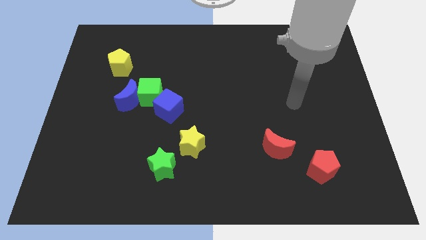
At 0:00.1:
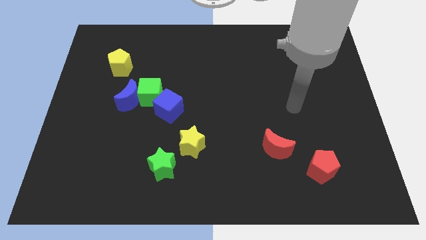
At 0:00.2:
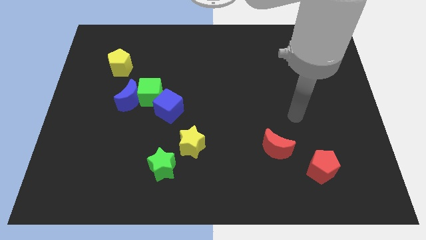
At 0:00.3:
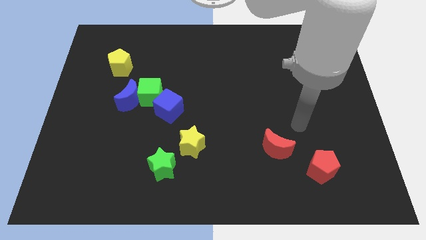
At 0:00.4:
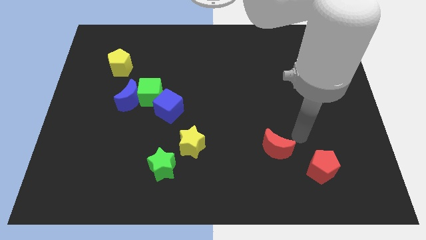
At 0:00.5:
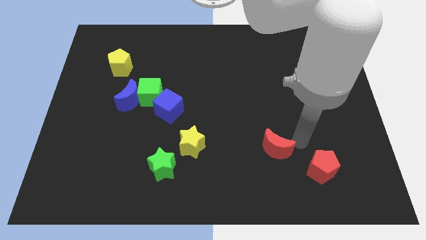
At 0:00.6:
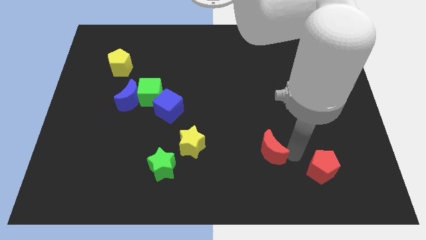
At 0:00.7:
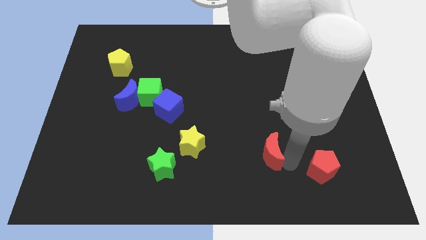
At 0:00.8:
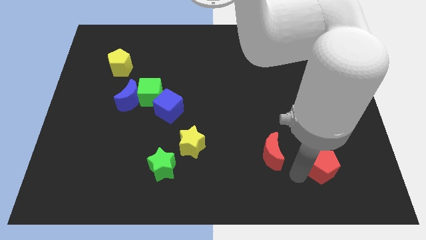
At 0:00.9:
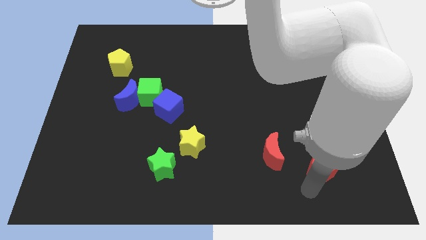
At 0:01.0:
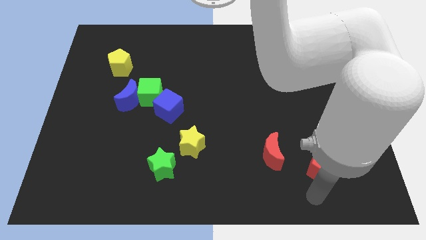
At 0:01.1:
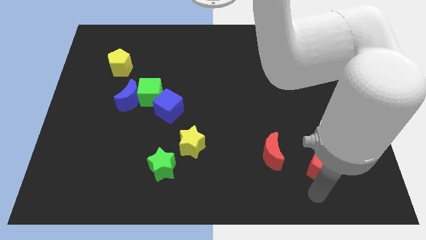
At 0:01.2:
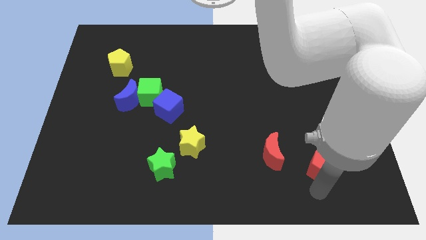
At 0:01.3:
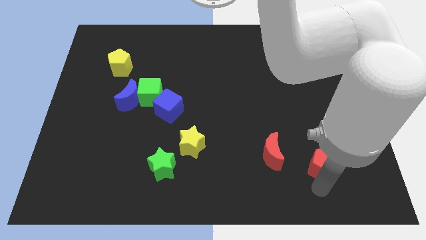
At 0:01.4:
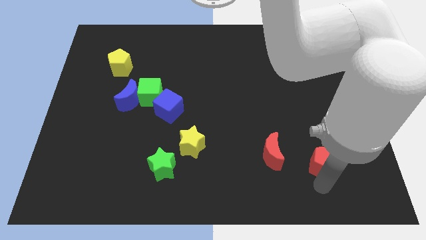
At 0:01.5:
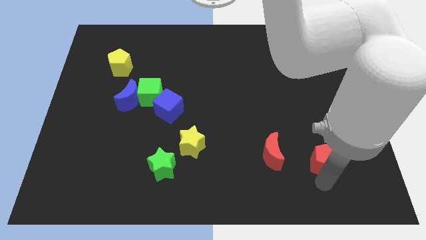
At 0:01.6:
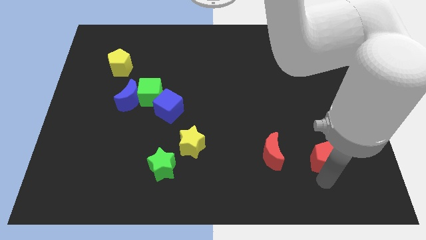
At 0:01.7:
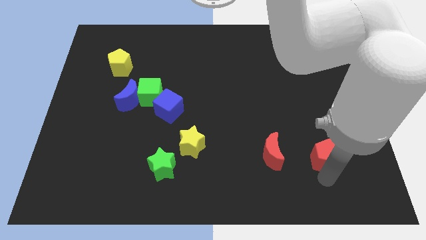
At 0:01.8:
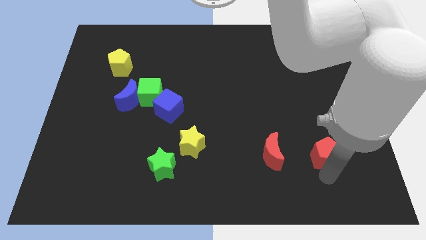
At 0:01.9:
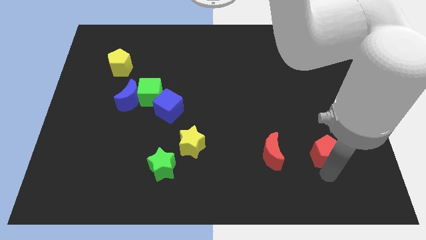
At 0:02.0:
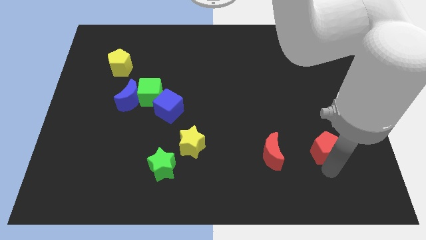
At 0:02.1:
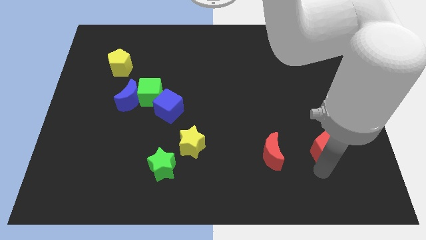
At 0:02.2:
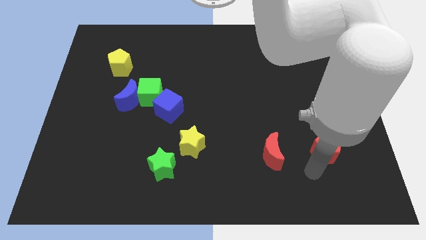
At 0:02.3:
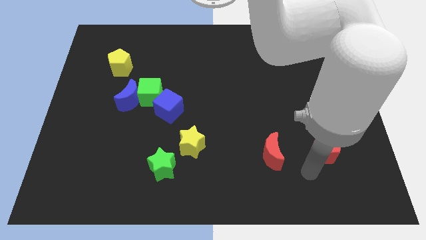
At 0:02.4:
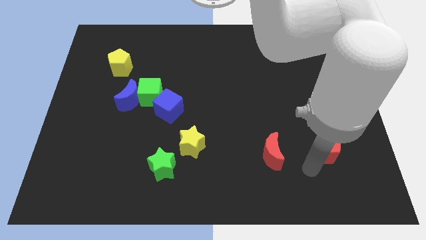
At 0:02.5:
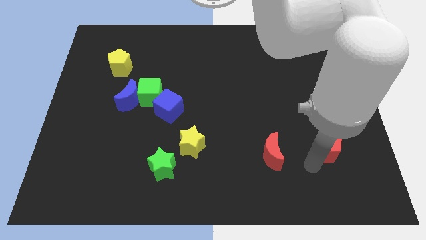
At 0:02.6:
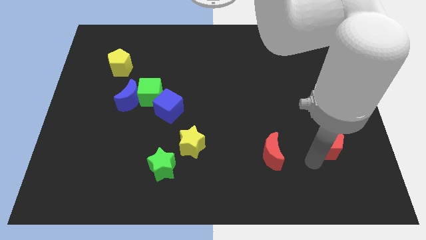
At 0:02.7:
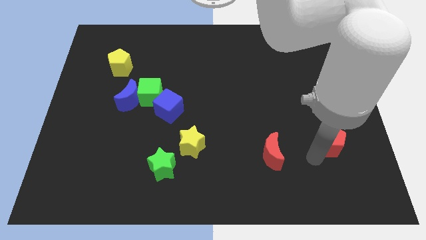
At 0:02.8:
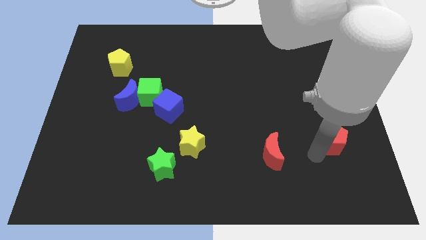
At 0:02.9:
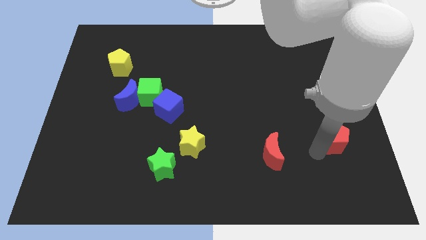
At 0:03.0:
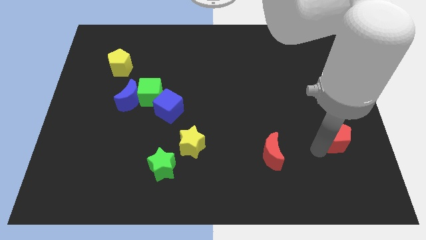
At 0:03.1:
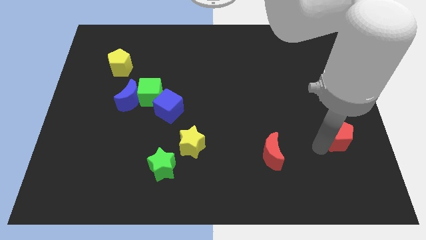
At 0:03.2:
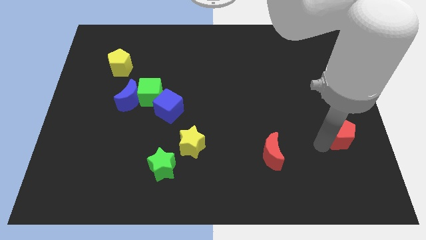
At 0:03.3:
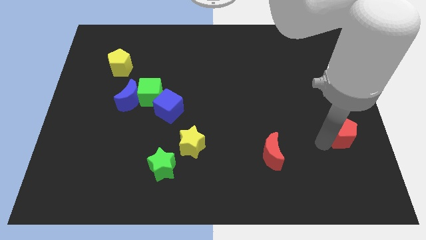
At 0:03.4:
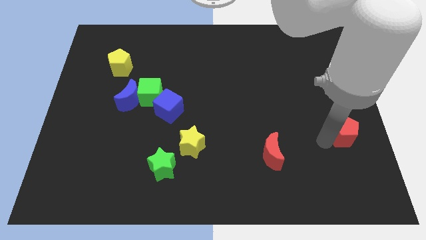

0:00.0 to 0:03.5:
put the red pentagon to the right side

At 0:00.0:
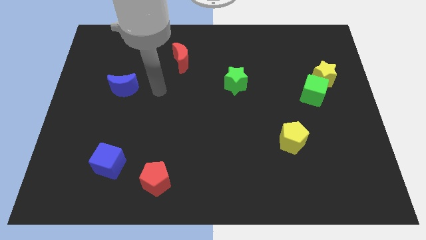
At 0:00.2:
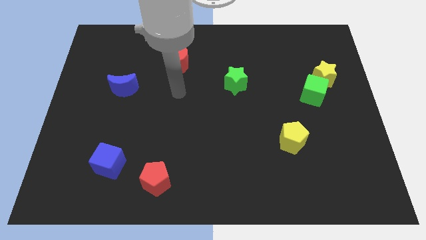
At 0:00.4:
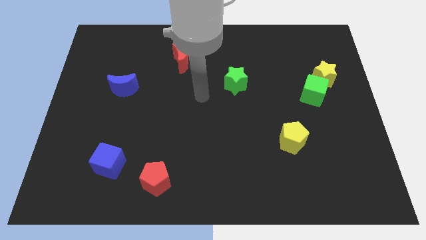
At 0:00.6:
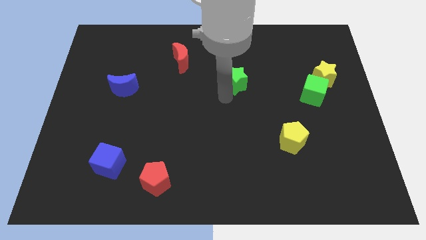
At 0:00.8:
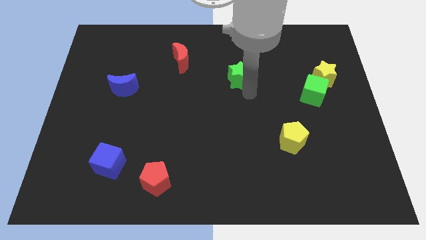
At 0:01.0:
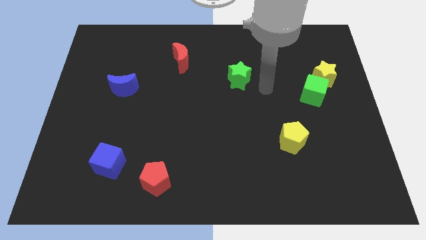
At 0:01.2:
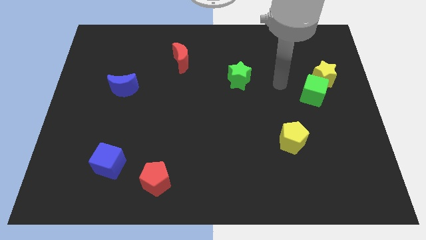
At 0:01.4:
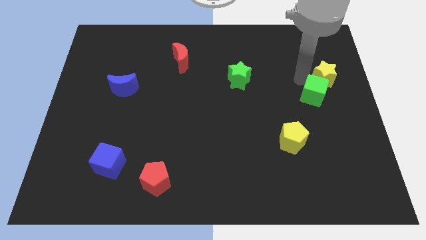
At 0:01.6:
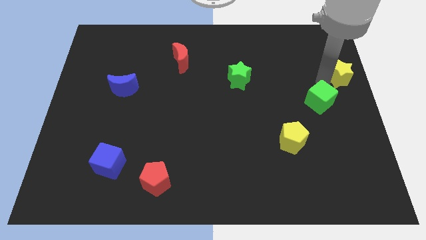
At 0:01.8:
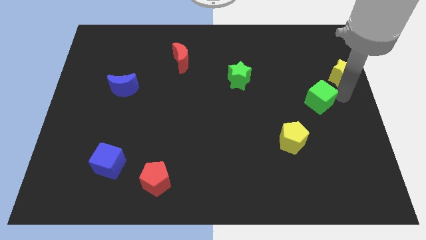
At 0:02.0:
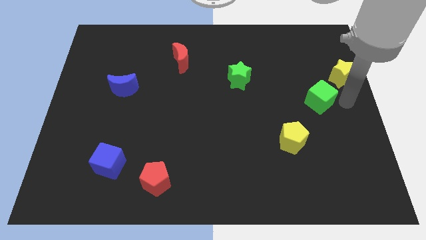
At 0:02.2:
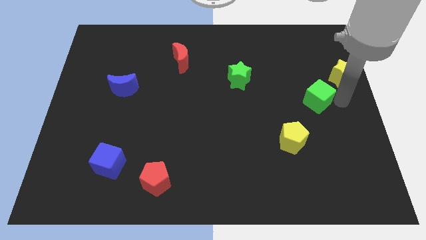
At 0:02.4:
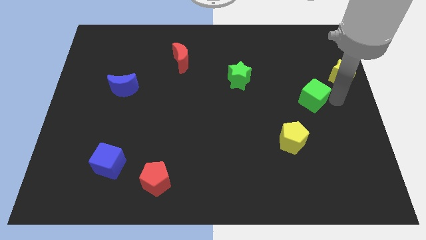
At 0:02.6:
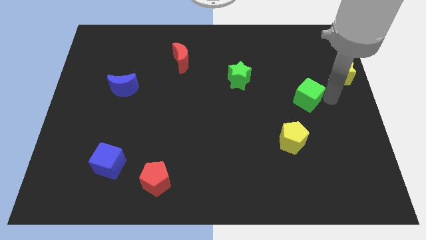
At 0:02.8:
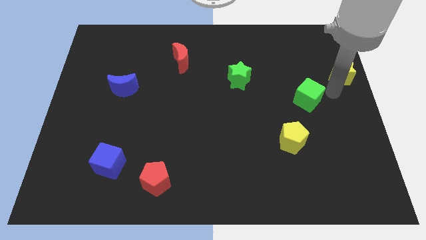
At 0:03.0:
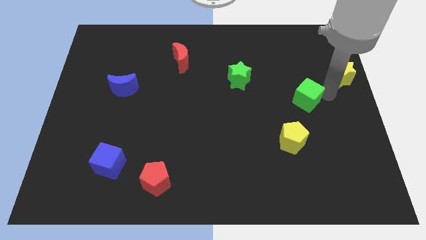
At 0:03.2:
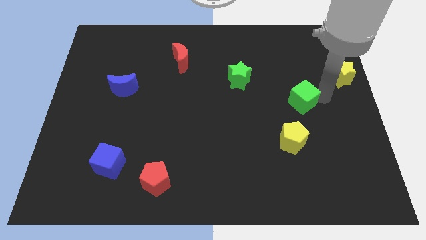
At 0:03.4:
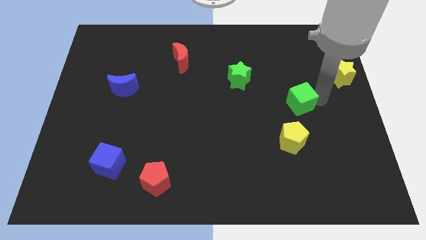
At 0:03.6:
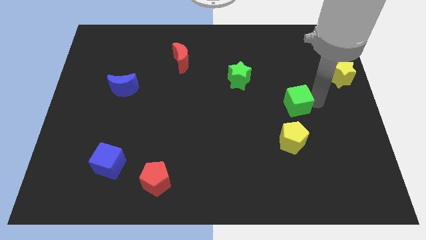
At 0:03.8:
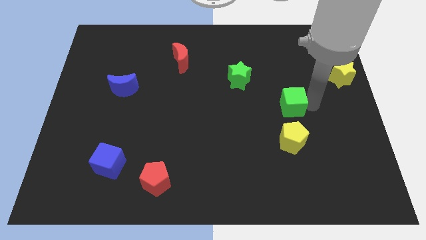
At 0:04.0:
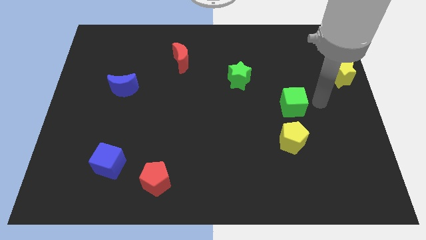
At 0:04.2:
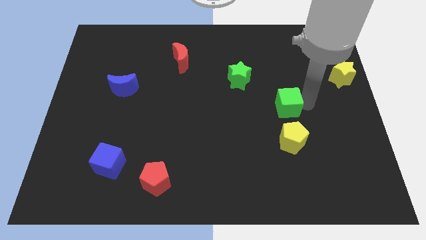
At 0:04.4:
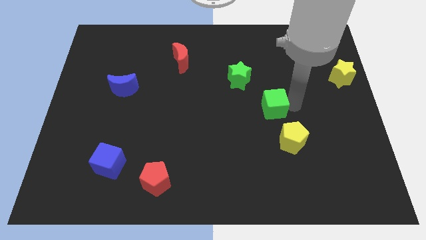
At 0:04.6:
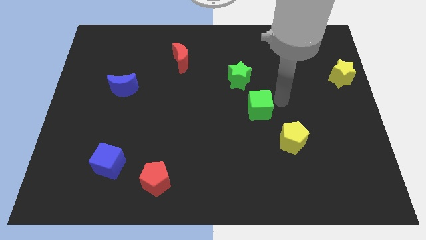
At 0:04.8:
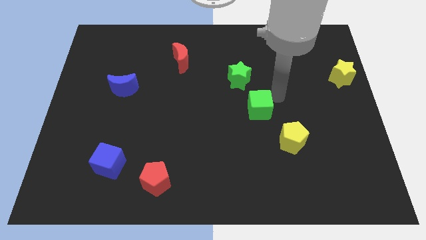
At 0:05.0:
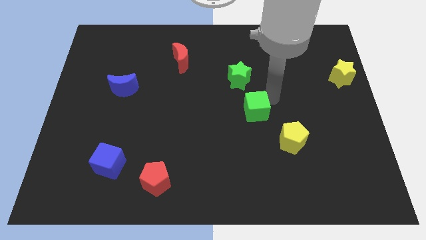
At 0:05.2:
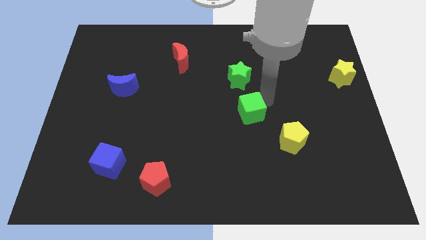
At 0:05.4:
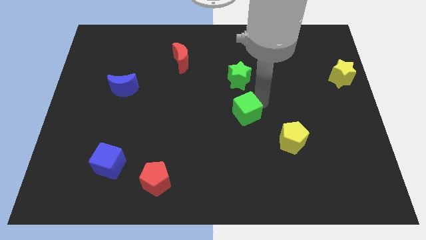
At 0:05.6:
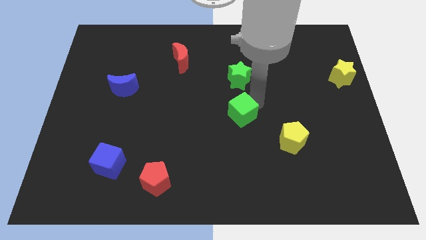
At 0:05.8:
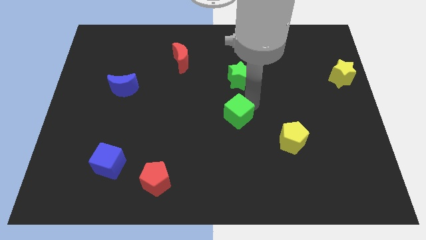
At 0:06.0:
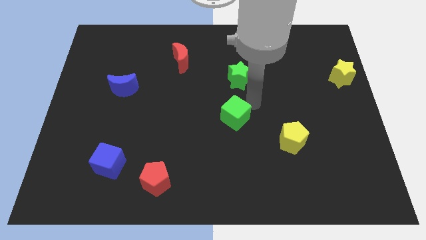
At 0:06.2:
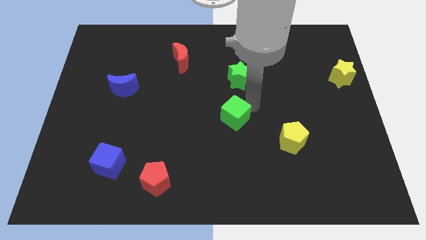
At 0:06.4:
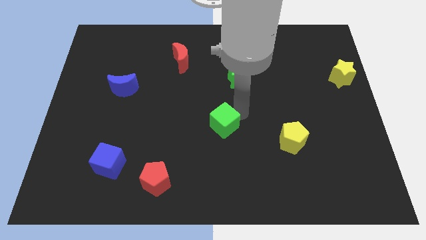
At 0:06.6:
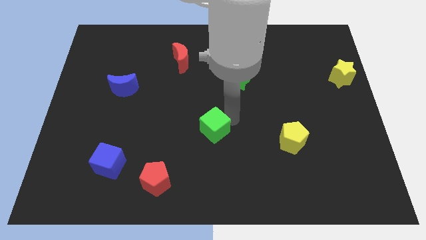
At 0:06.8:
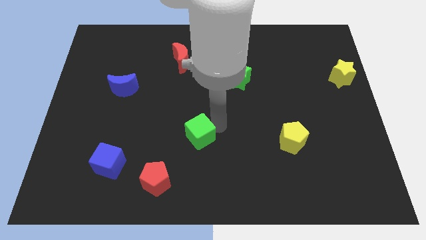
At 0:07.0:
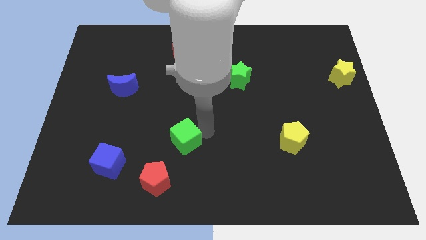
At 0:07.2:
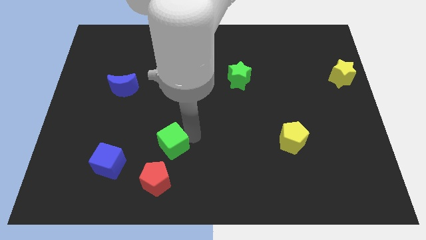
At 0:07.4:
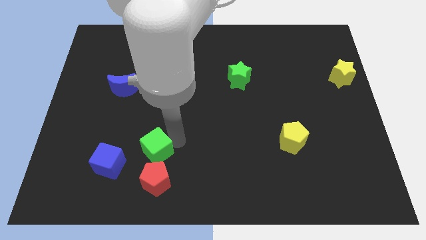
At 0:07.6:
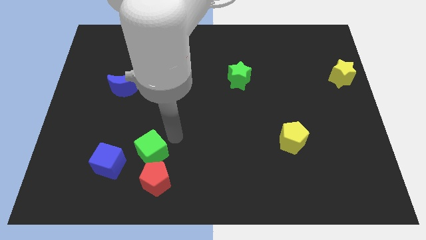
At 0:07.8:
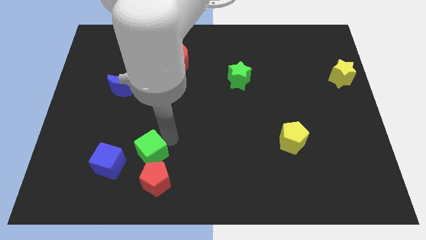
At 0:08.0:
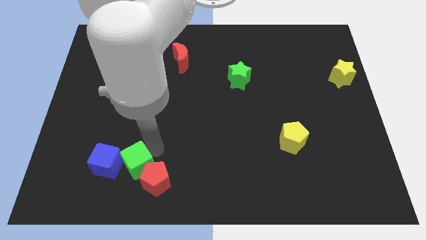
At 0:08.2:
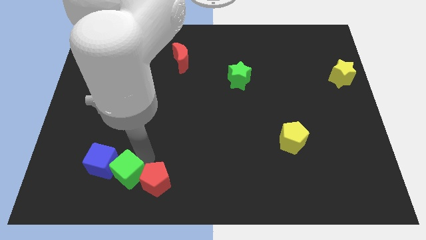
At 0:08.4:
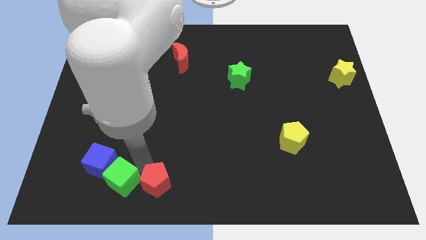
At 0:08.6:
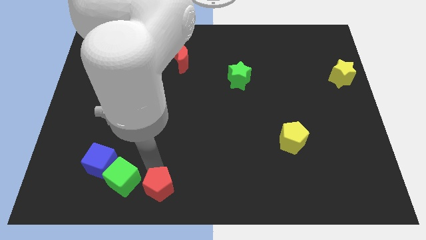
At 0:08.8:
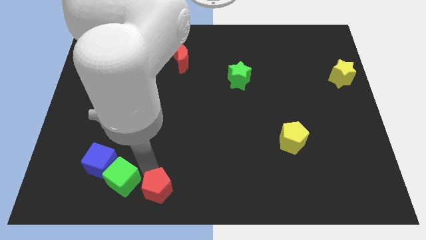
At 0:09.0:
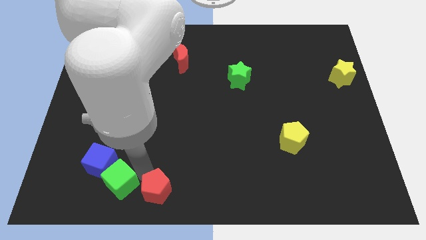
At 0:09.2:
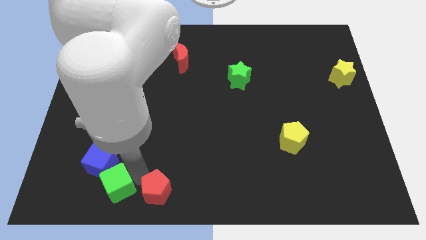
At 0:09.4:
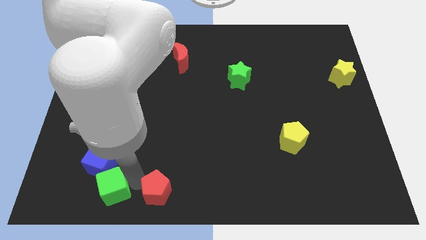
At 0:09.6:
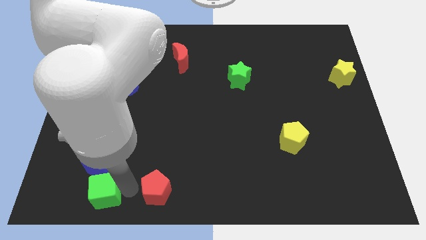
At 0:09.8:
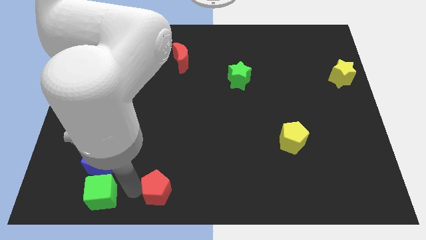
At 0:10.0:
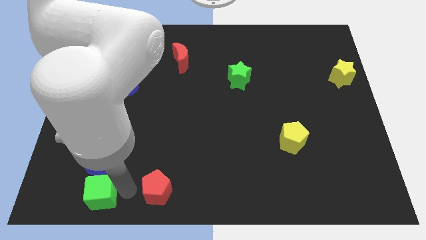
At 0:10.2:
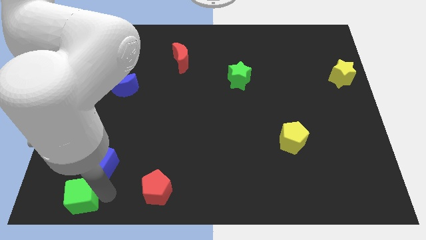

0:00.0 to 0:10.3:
put the green cube to the bottom left
